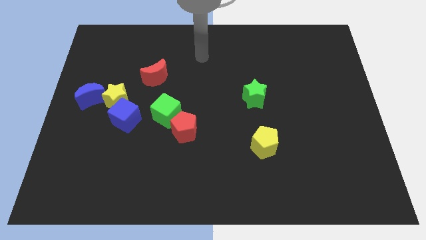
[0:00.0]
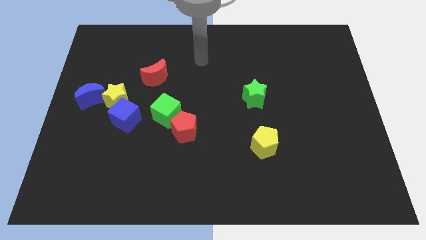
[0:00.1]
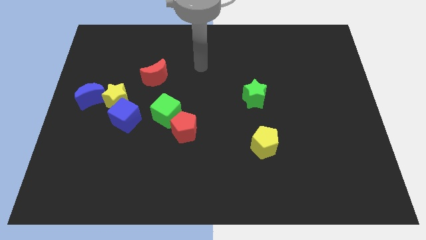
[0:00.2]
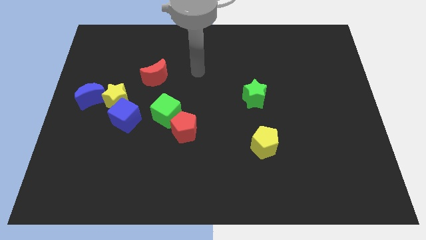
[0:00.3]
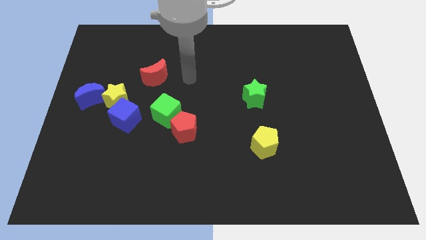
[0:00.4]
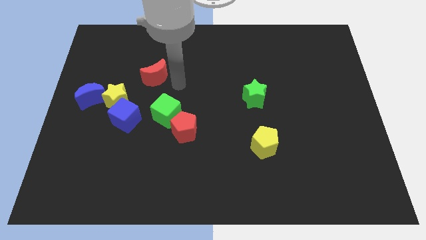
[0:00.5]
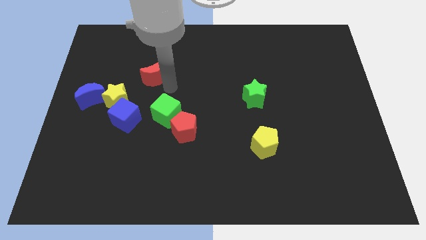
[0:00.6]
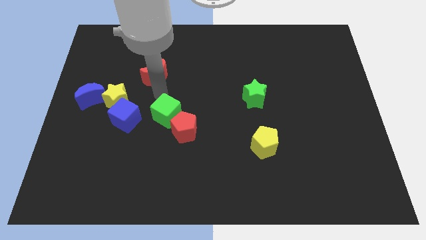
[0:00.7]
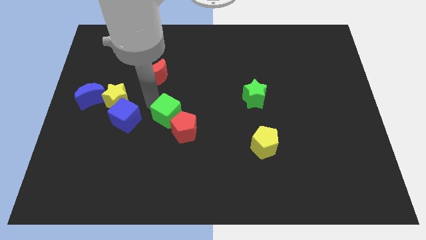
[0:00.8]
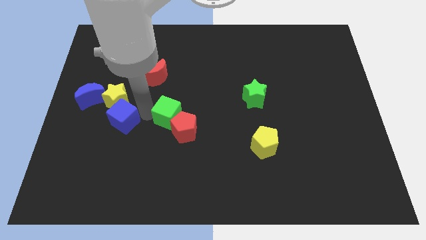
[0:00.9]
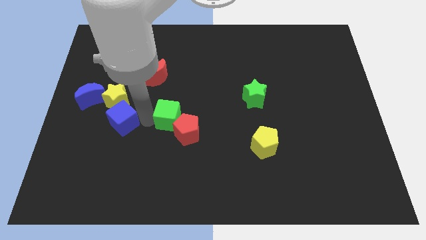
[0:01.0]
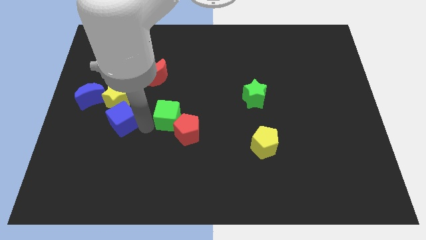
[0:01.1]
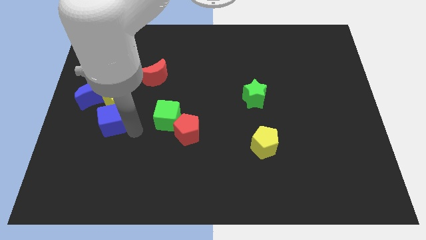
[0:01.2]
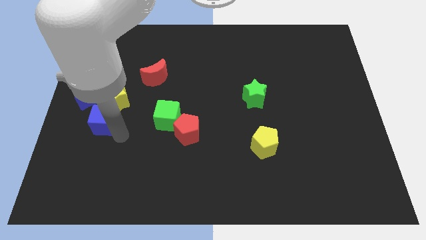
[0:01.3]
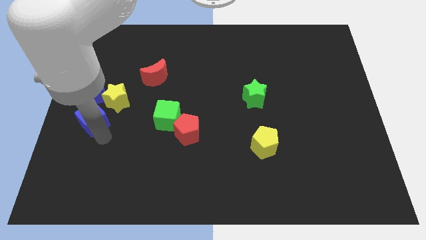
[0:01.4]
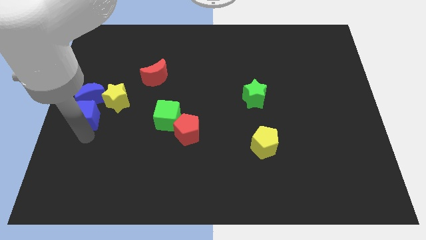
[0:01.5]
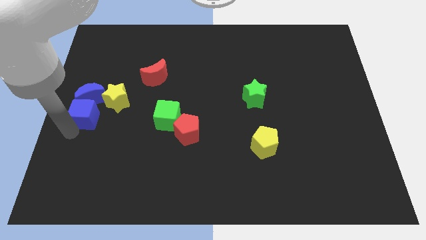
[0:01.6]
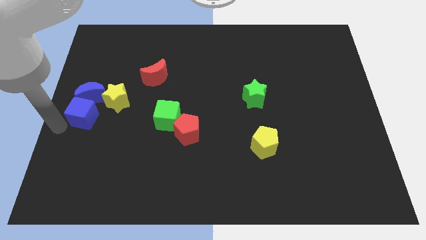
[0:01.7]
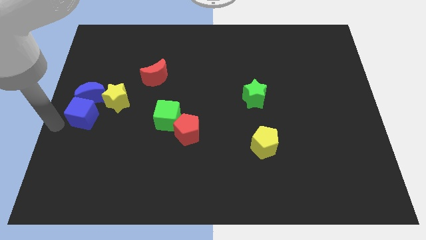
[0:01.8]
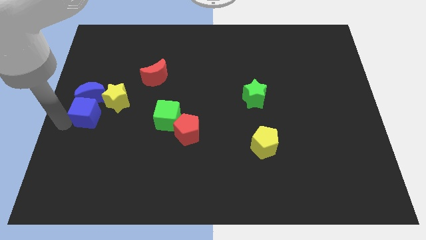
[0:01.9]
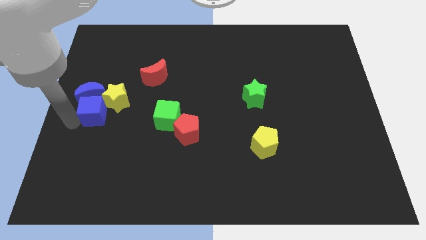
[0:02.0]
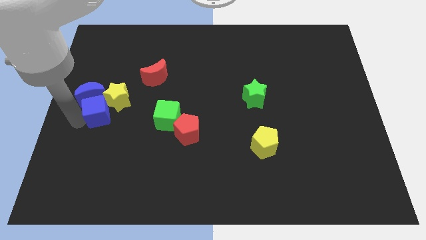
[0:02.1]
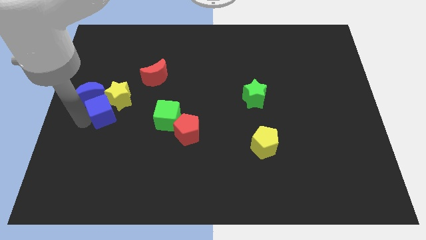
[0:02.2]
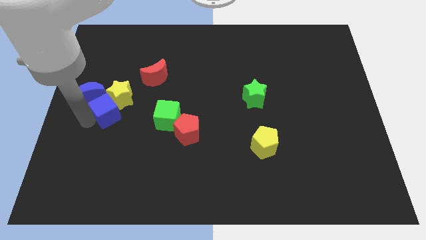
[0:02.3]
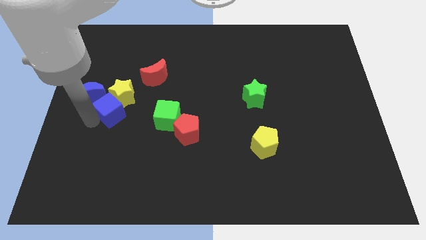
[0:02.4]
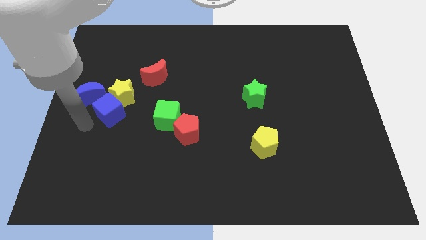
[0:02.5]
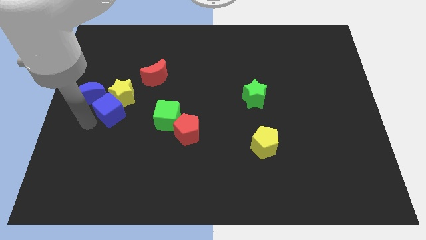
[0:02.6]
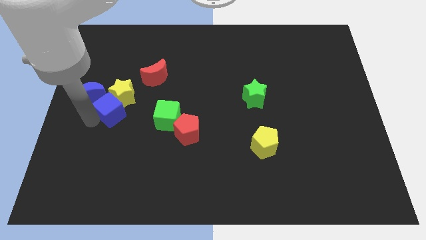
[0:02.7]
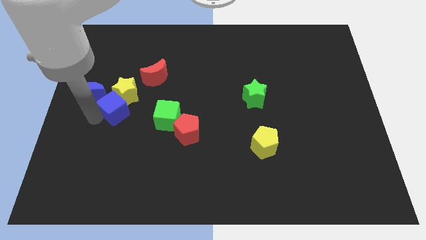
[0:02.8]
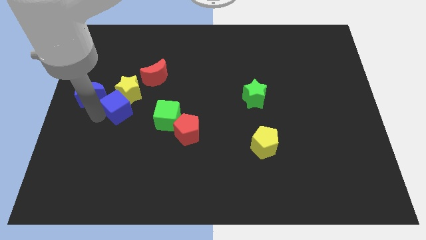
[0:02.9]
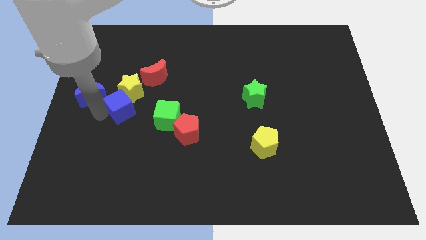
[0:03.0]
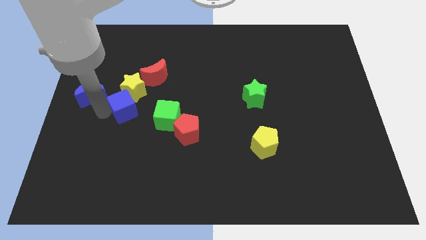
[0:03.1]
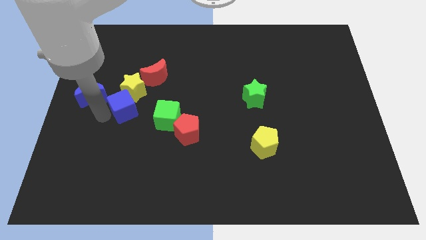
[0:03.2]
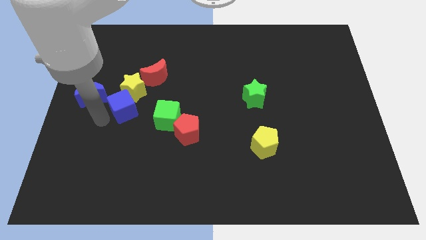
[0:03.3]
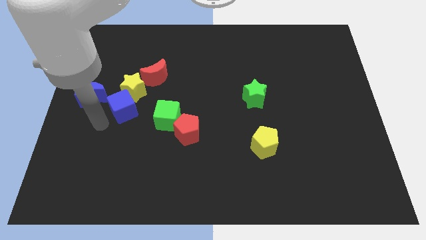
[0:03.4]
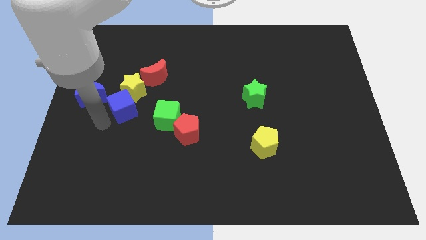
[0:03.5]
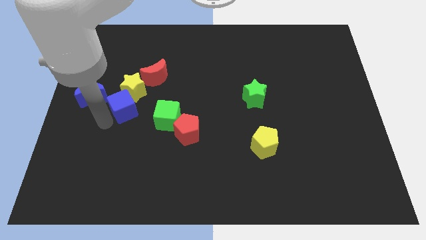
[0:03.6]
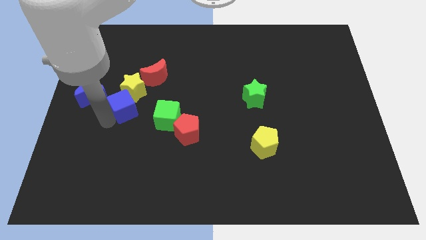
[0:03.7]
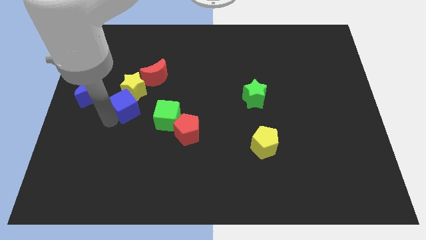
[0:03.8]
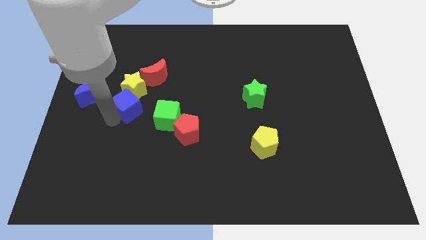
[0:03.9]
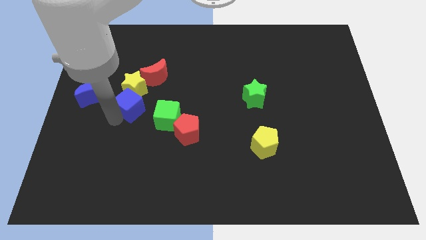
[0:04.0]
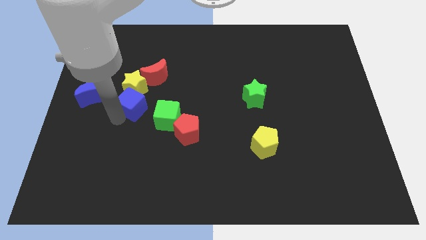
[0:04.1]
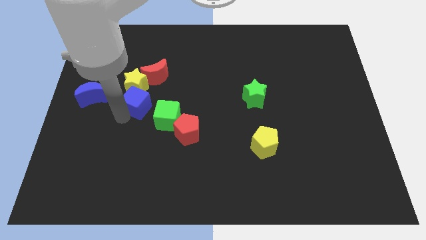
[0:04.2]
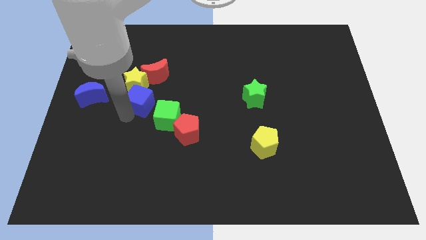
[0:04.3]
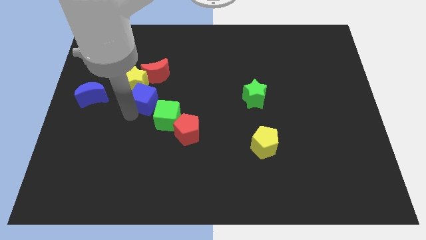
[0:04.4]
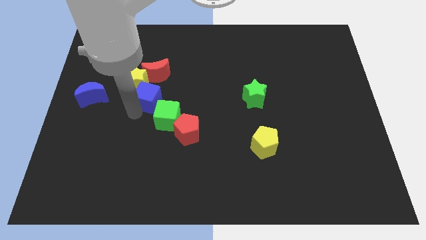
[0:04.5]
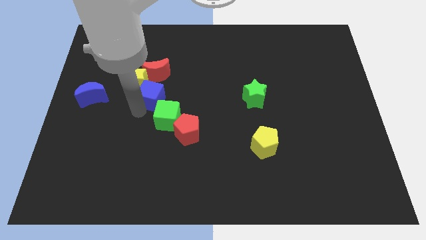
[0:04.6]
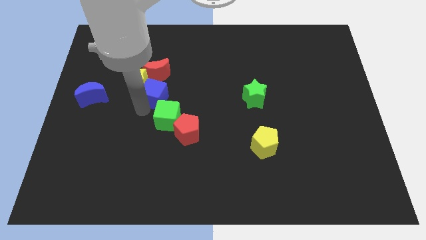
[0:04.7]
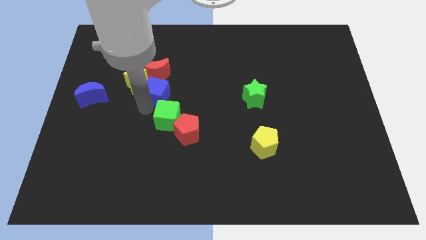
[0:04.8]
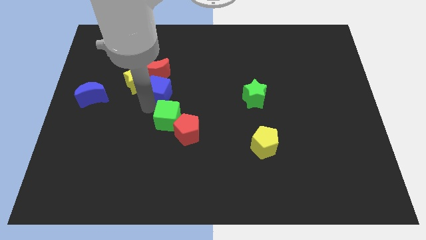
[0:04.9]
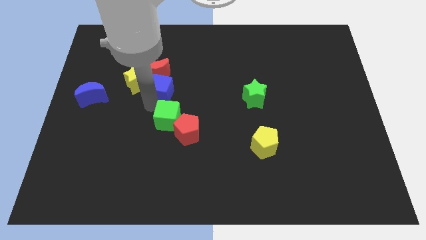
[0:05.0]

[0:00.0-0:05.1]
push the blue cube next to the red moon

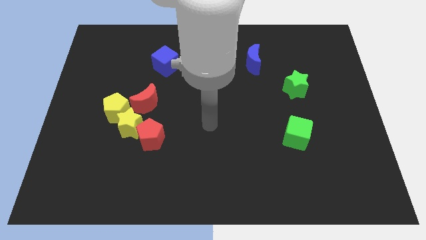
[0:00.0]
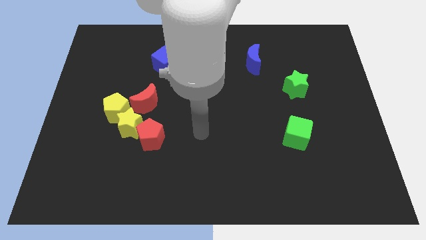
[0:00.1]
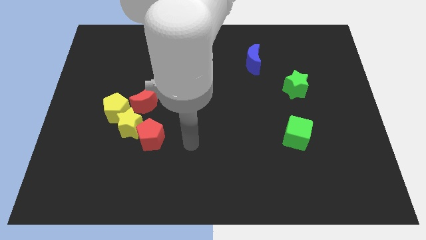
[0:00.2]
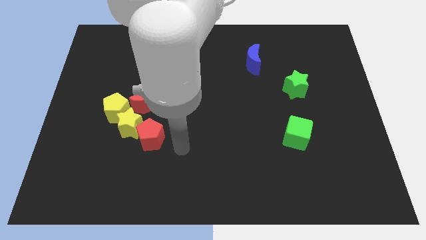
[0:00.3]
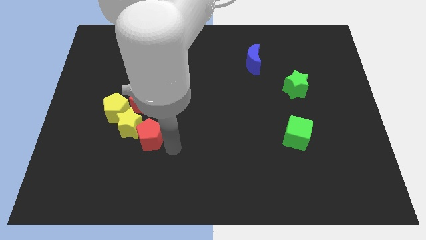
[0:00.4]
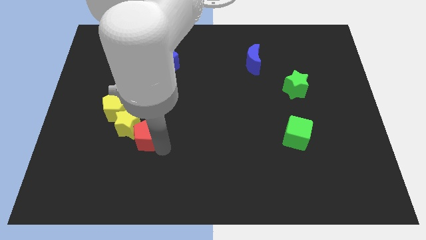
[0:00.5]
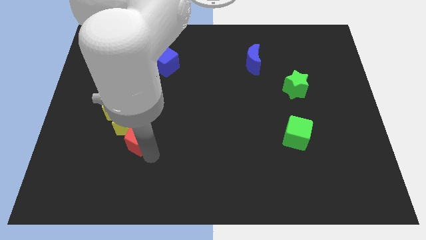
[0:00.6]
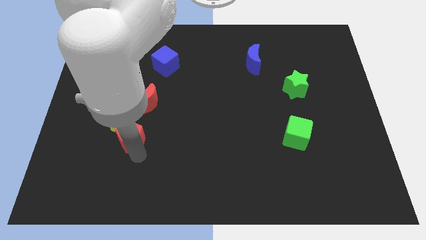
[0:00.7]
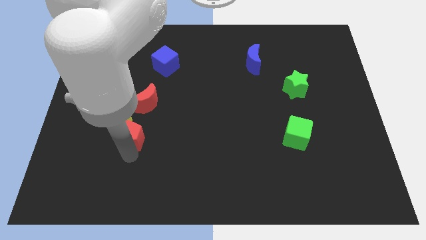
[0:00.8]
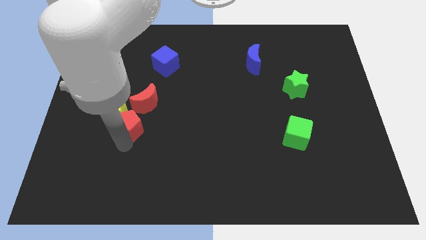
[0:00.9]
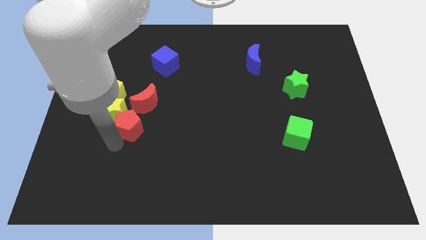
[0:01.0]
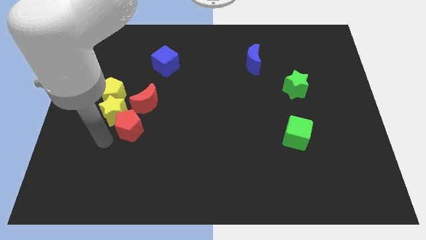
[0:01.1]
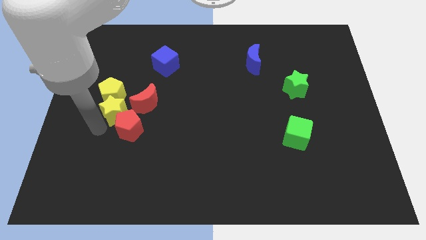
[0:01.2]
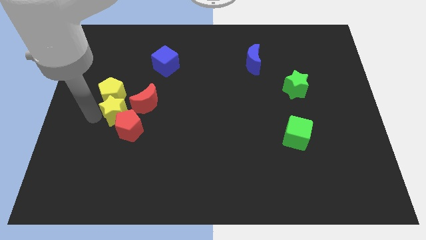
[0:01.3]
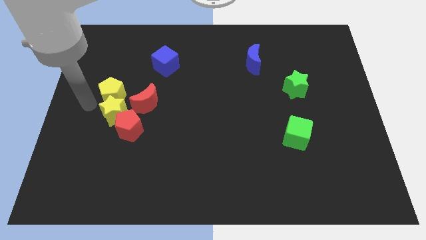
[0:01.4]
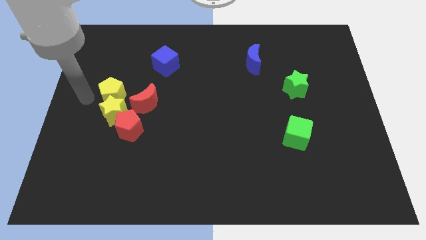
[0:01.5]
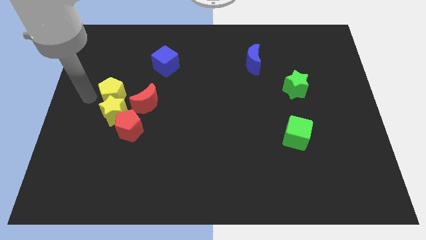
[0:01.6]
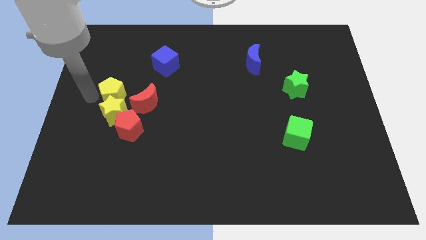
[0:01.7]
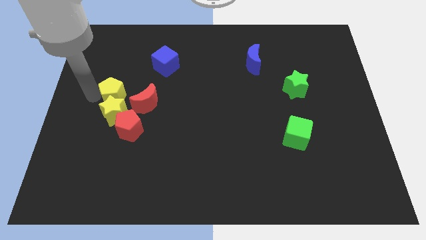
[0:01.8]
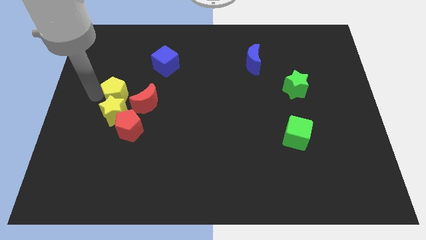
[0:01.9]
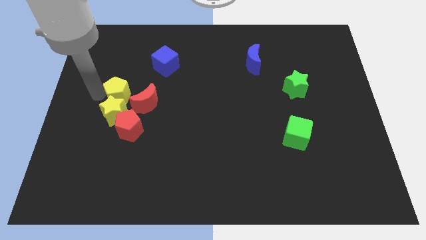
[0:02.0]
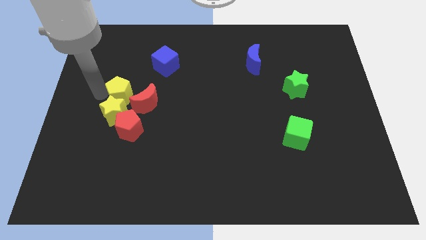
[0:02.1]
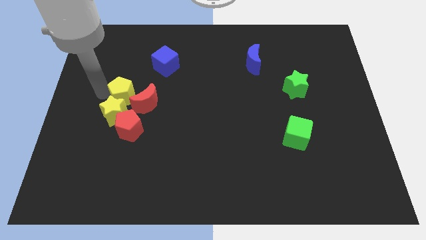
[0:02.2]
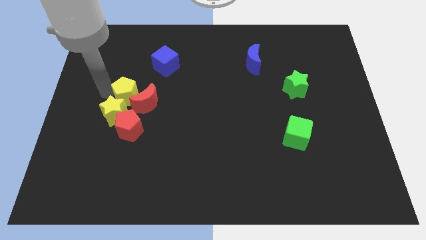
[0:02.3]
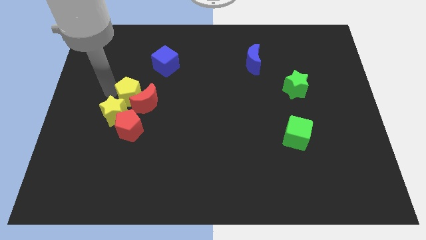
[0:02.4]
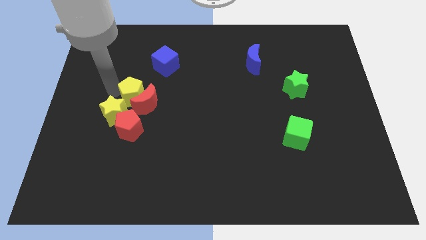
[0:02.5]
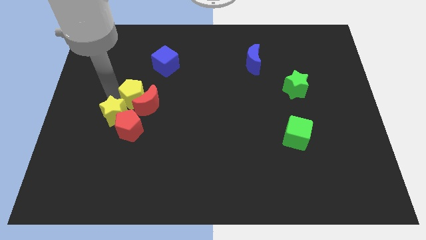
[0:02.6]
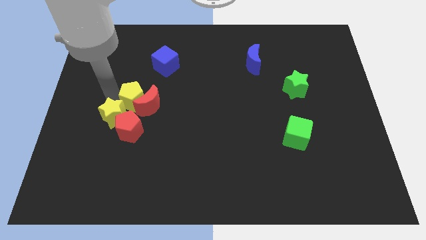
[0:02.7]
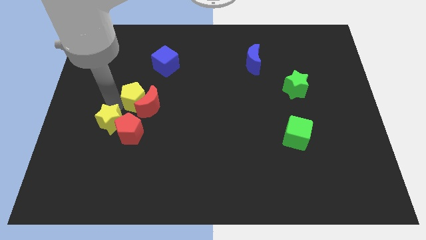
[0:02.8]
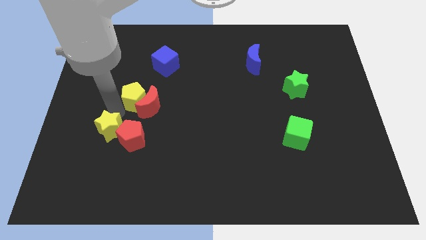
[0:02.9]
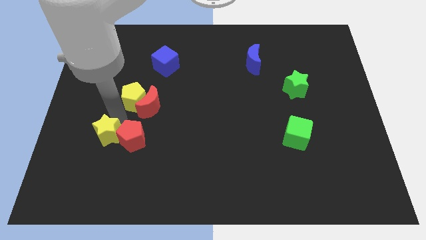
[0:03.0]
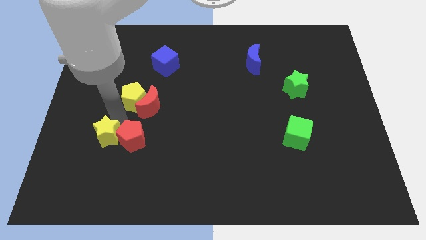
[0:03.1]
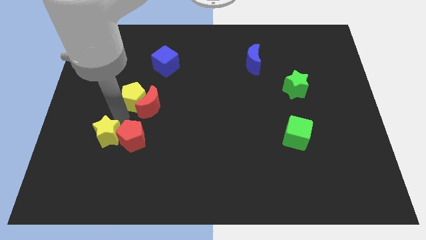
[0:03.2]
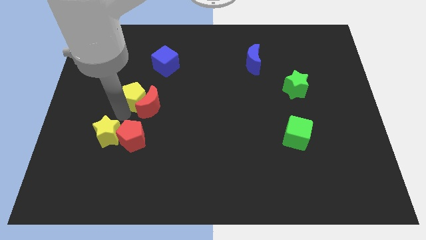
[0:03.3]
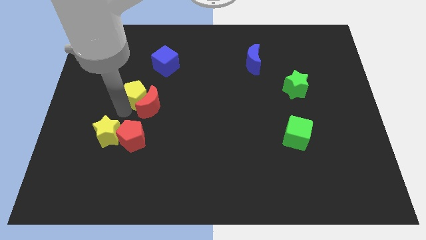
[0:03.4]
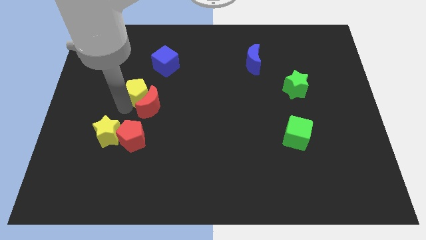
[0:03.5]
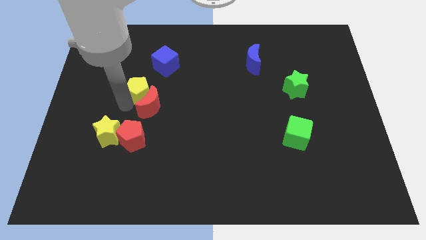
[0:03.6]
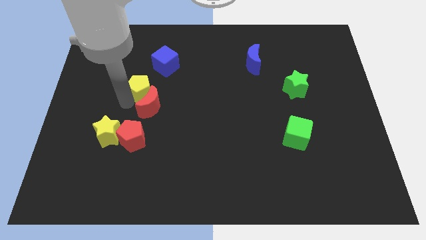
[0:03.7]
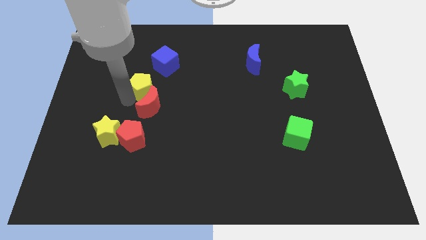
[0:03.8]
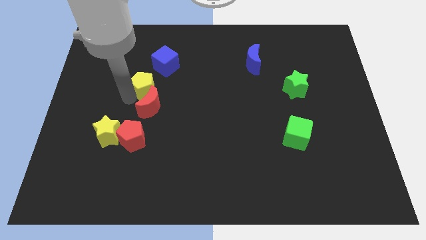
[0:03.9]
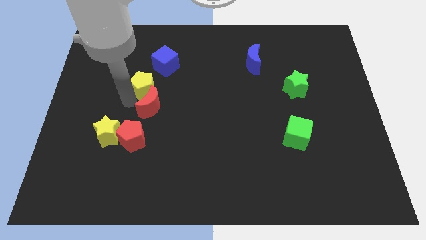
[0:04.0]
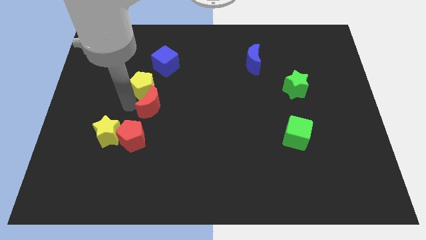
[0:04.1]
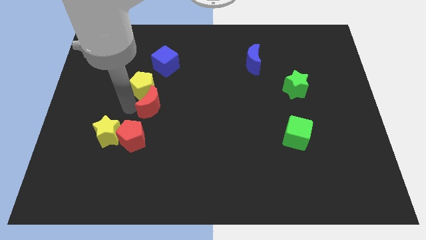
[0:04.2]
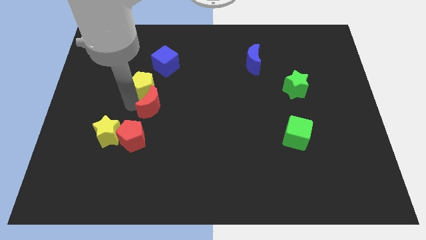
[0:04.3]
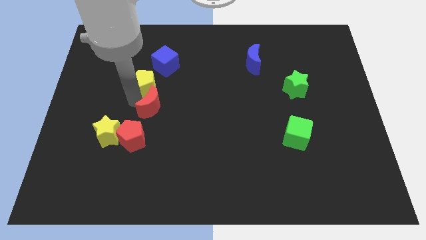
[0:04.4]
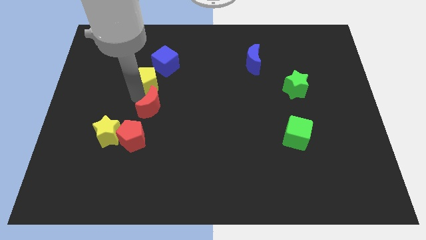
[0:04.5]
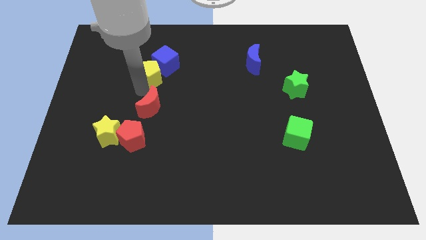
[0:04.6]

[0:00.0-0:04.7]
slide the yellow pentagon close to the blue cube
